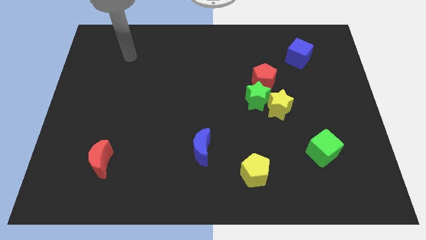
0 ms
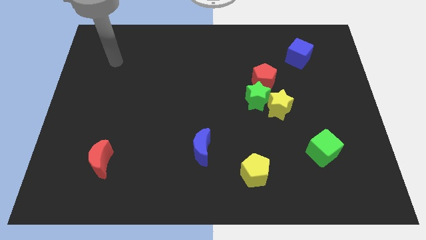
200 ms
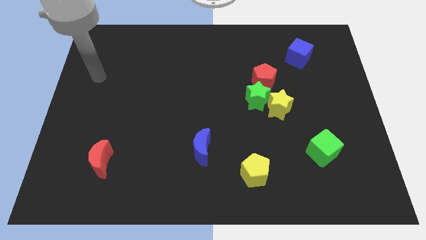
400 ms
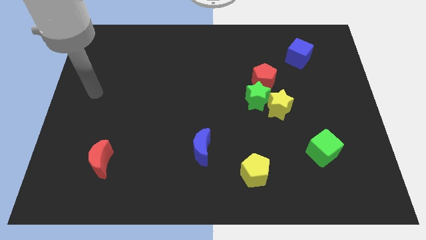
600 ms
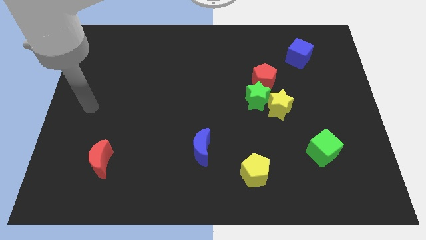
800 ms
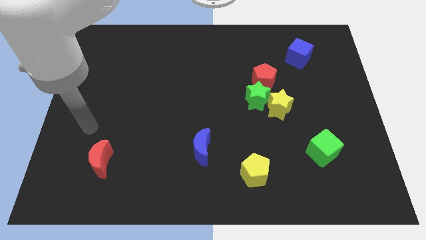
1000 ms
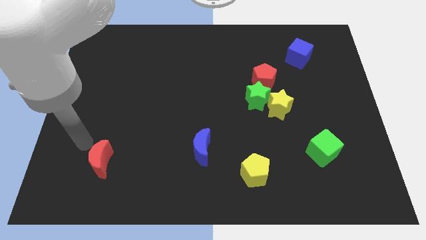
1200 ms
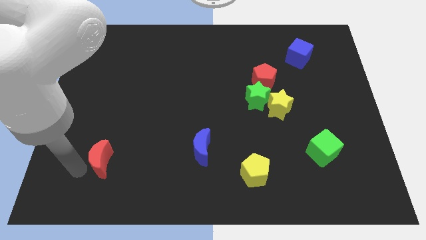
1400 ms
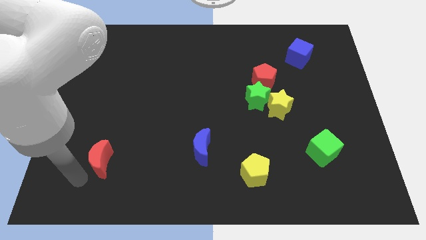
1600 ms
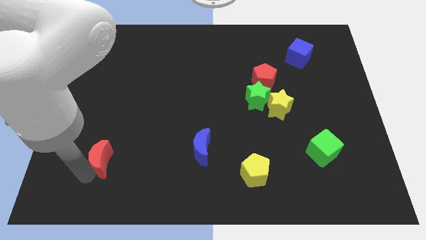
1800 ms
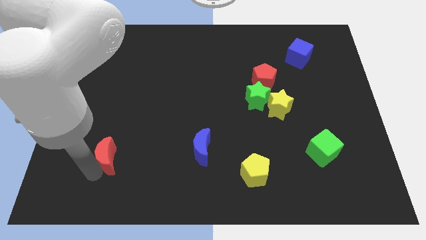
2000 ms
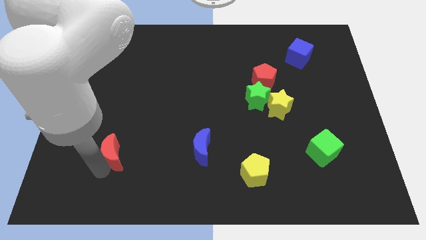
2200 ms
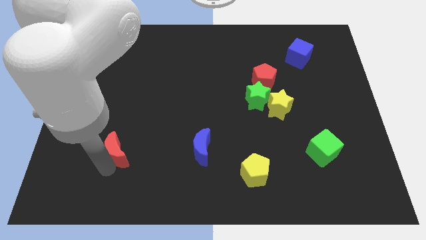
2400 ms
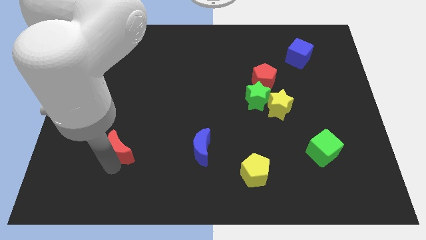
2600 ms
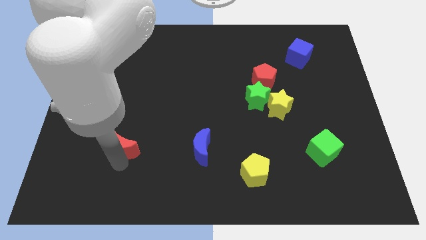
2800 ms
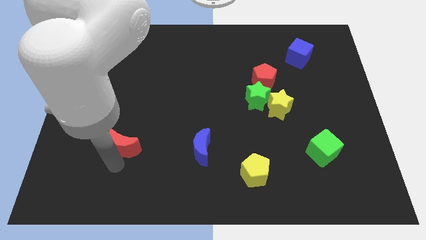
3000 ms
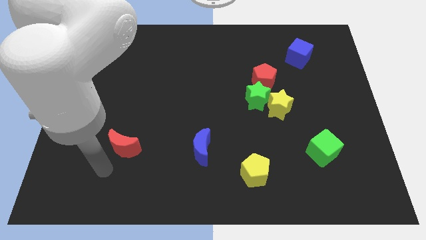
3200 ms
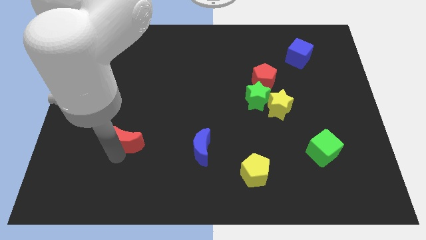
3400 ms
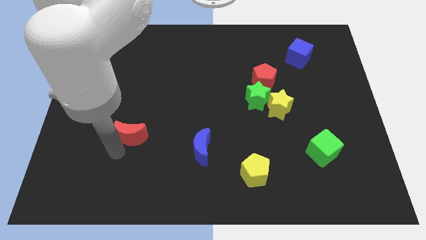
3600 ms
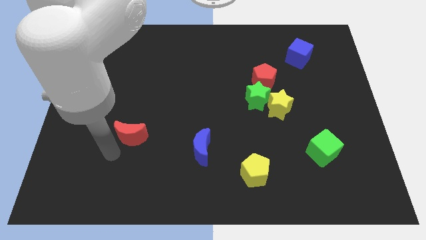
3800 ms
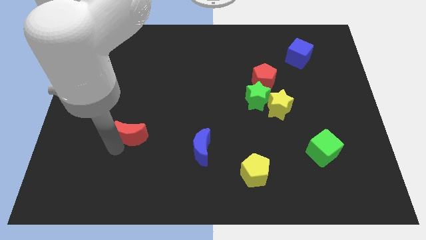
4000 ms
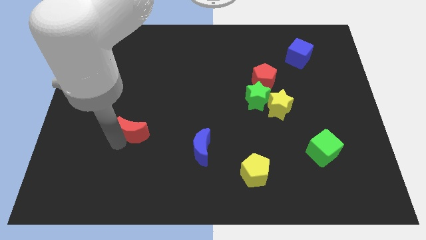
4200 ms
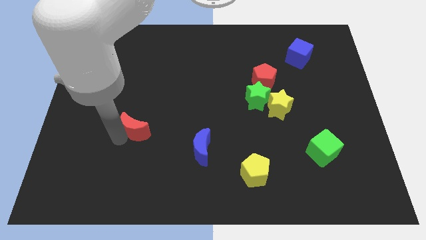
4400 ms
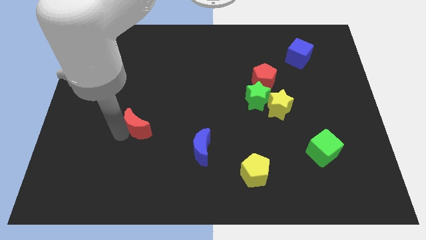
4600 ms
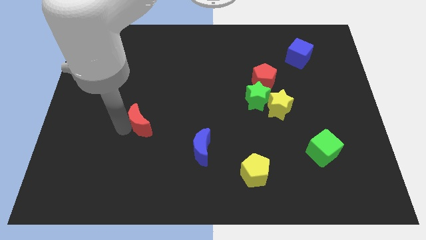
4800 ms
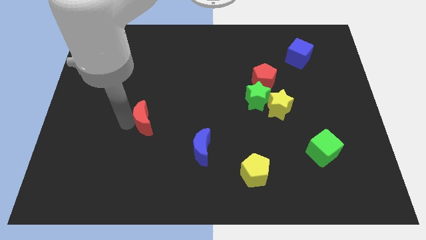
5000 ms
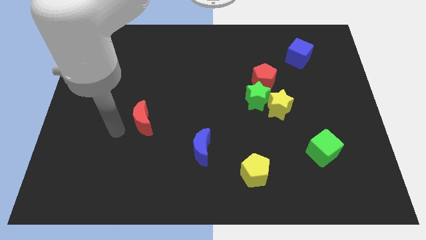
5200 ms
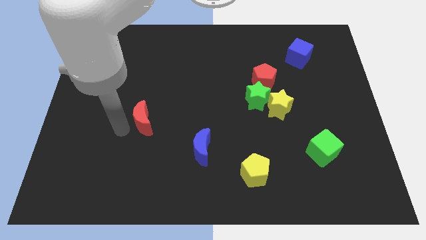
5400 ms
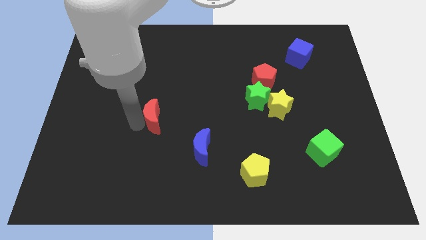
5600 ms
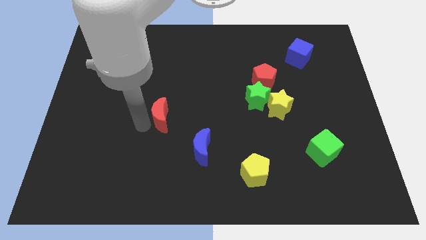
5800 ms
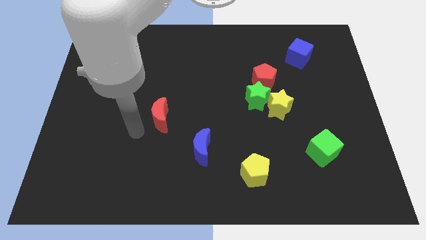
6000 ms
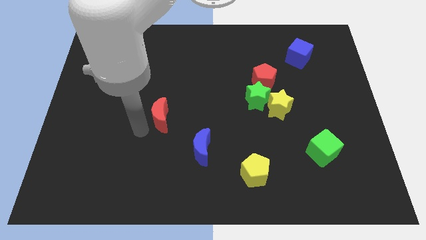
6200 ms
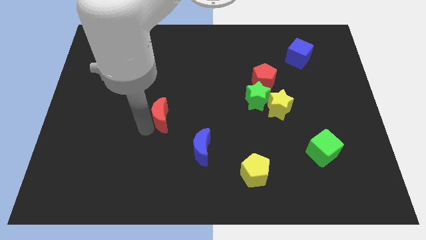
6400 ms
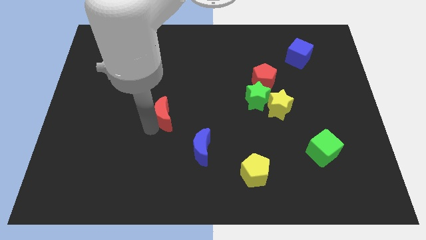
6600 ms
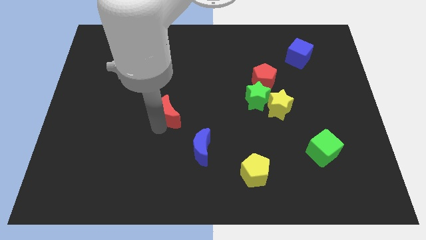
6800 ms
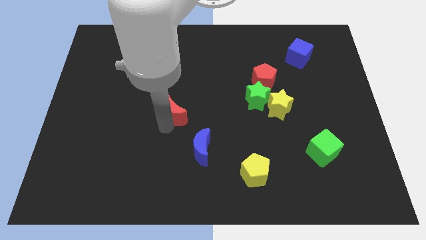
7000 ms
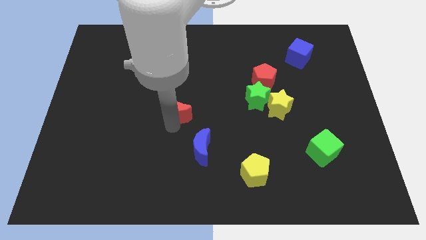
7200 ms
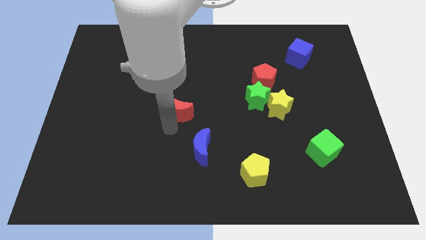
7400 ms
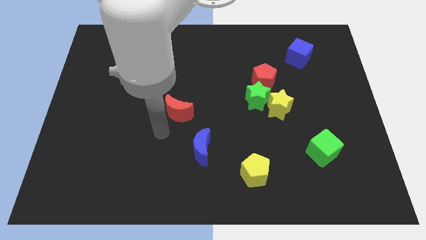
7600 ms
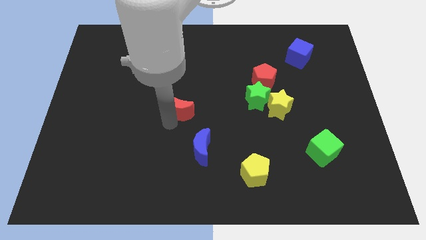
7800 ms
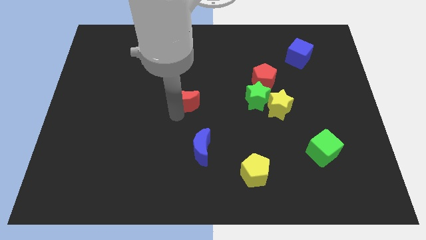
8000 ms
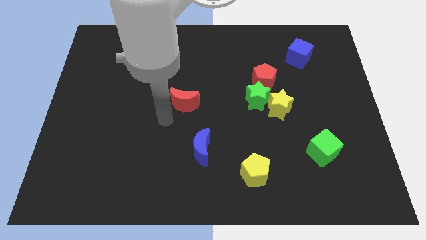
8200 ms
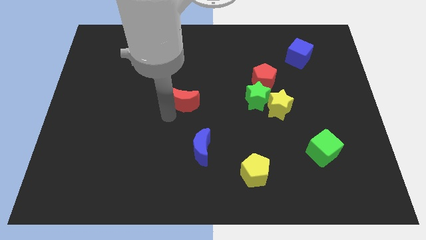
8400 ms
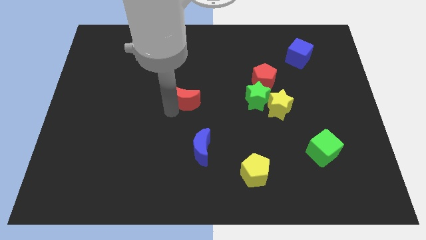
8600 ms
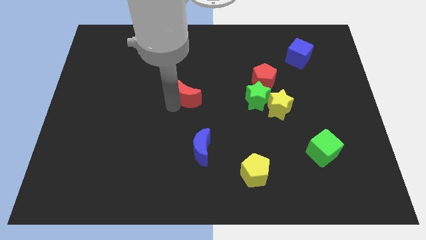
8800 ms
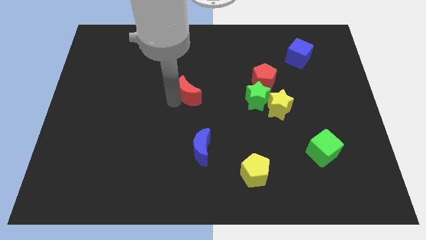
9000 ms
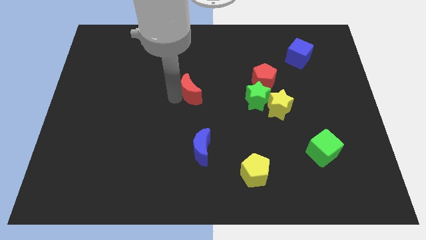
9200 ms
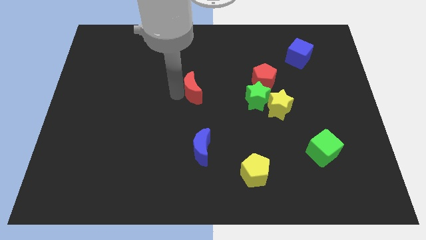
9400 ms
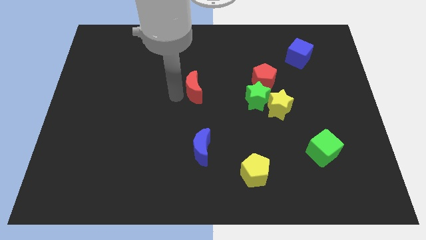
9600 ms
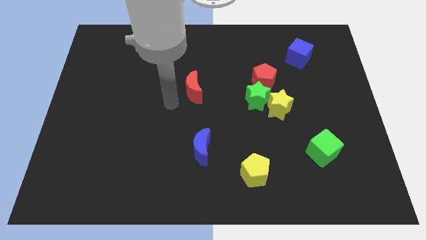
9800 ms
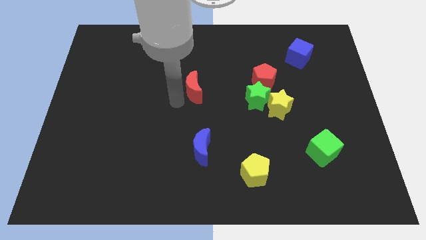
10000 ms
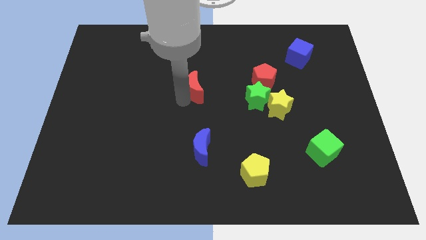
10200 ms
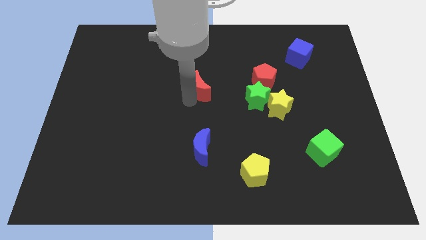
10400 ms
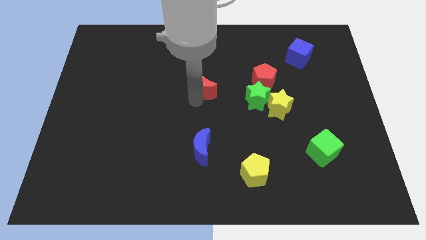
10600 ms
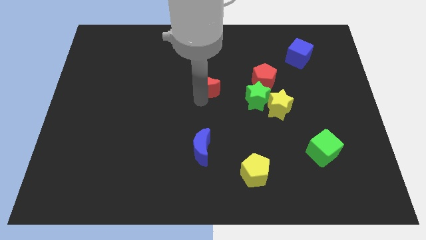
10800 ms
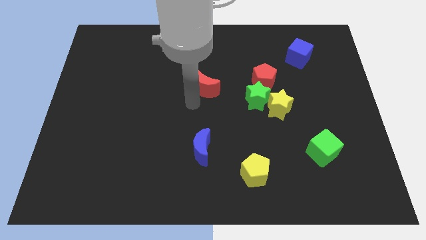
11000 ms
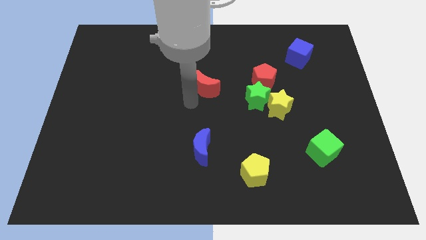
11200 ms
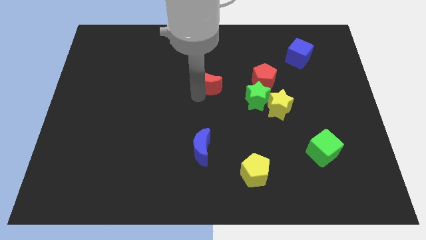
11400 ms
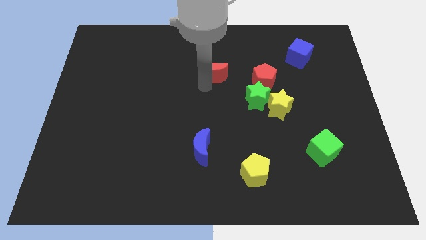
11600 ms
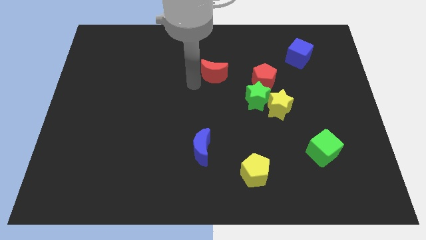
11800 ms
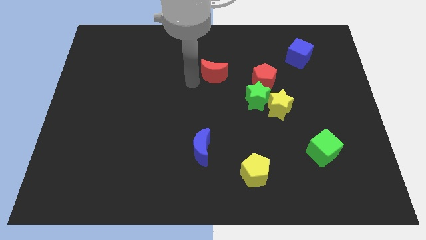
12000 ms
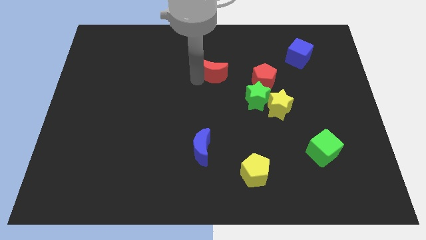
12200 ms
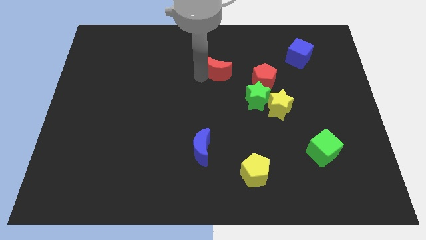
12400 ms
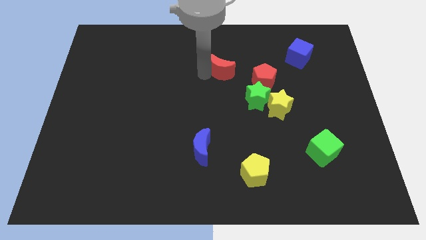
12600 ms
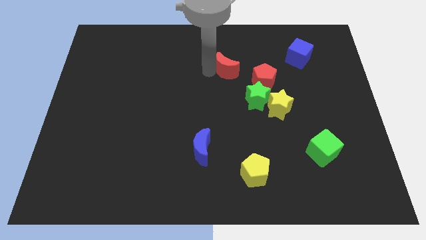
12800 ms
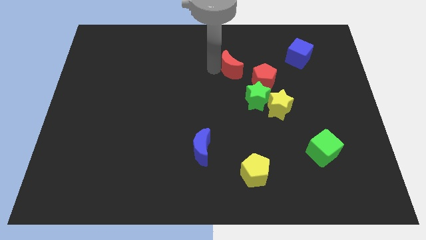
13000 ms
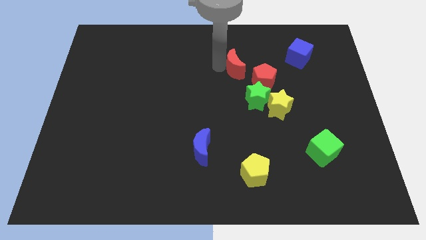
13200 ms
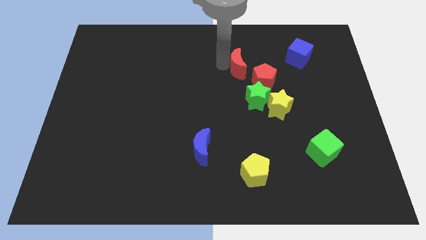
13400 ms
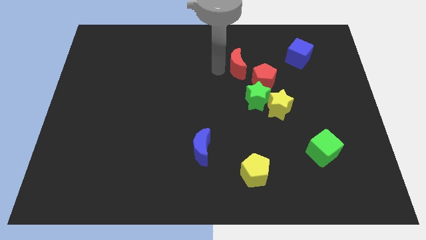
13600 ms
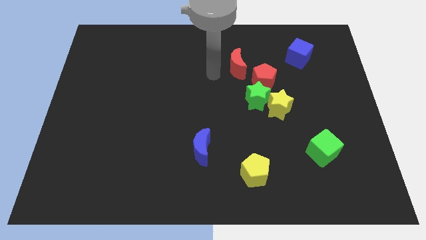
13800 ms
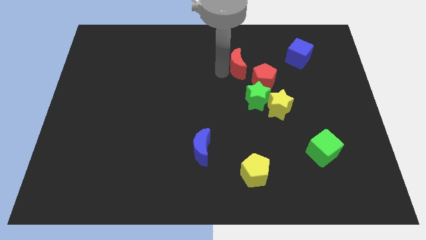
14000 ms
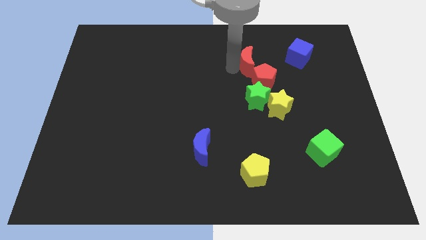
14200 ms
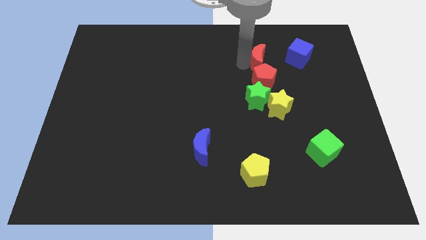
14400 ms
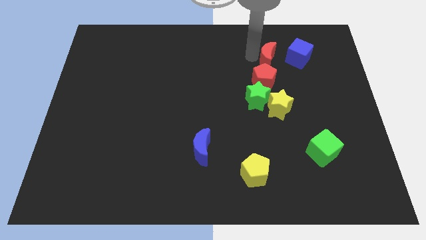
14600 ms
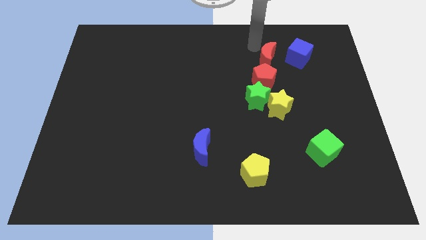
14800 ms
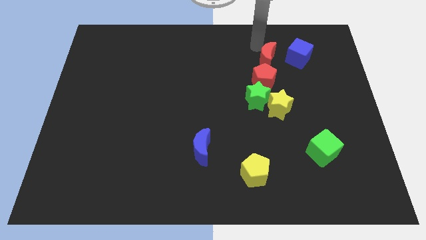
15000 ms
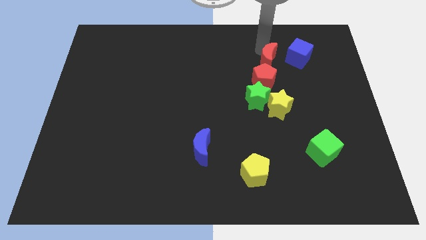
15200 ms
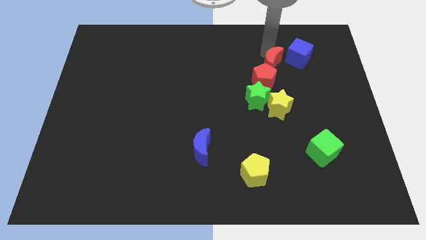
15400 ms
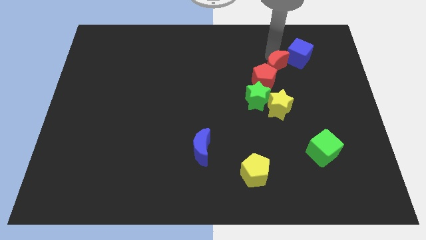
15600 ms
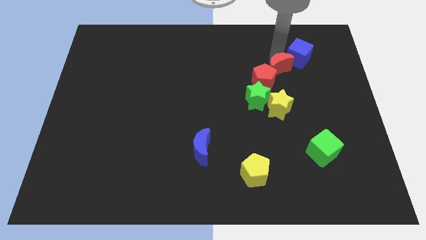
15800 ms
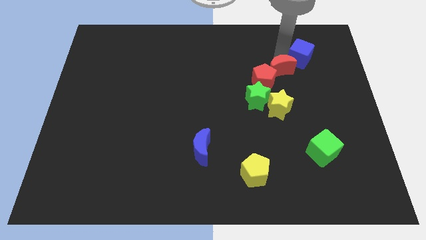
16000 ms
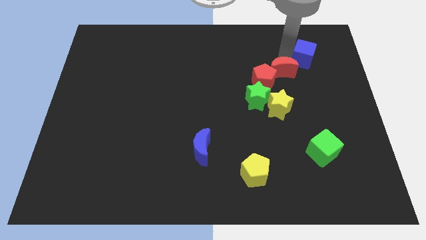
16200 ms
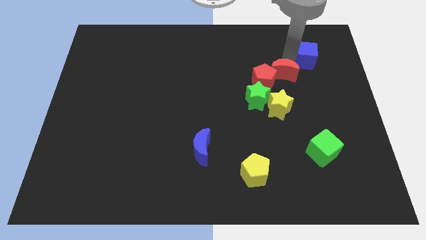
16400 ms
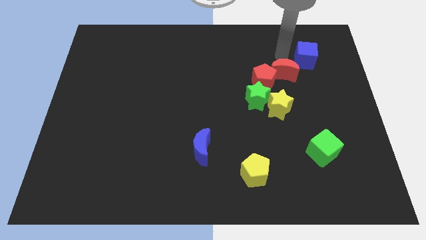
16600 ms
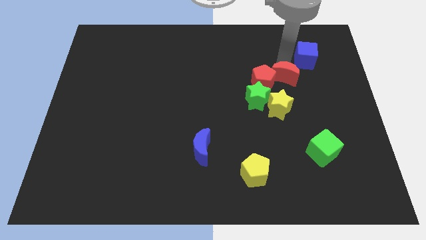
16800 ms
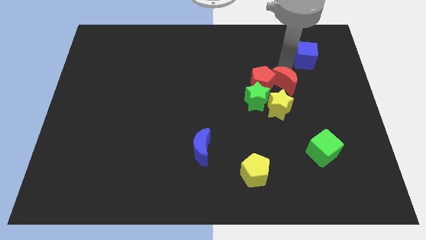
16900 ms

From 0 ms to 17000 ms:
slide the red moon to the bottom right of the red pentagon
